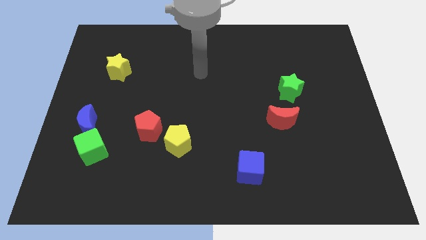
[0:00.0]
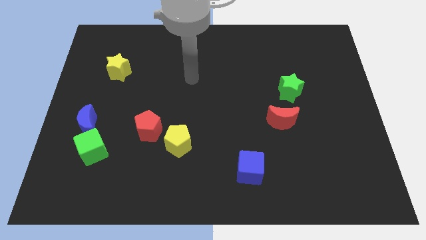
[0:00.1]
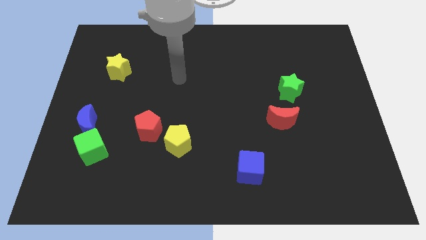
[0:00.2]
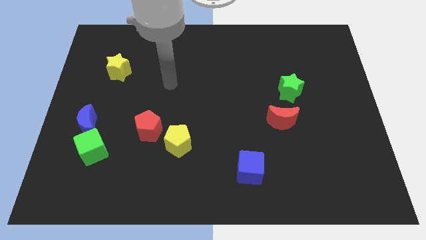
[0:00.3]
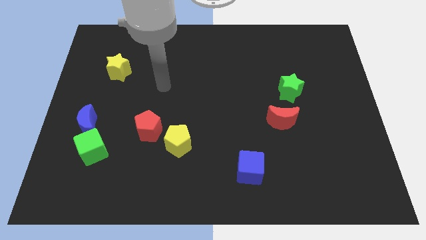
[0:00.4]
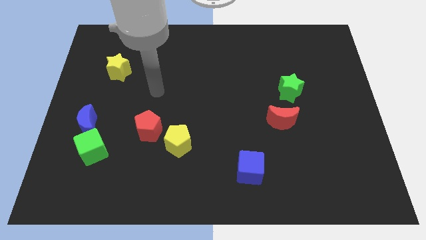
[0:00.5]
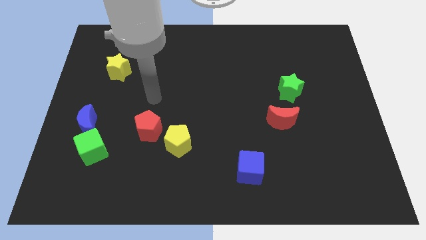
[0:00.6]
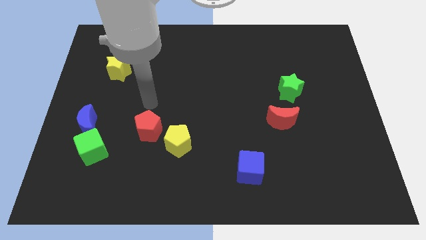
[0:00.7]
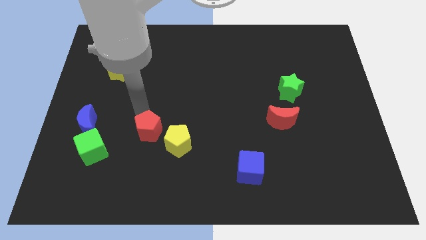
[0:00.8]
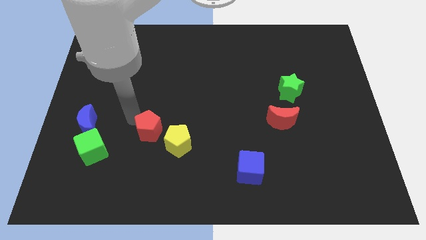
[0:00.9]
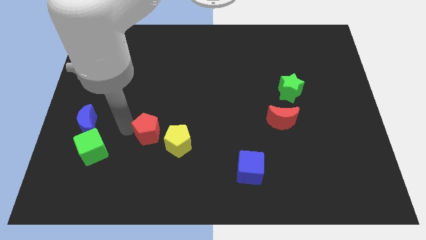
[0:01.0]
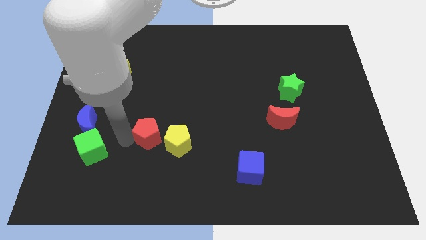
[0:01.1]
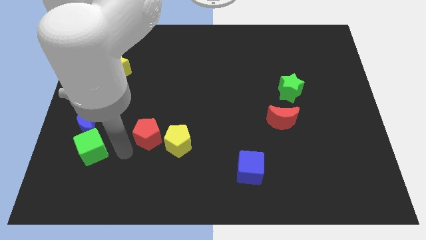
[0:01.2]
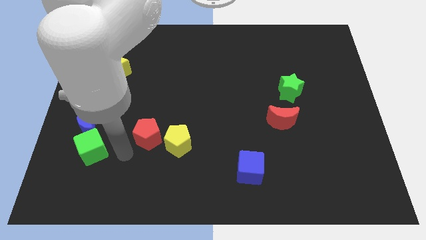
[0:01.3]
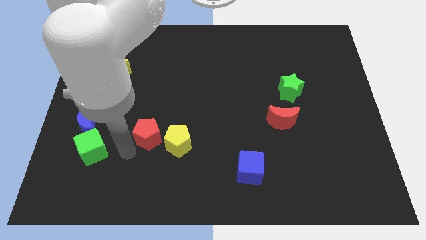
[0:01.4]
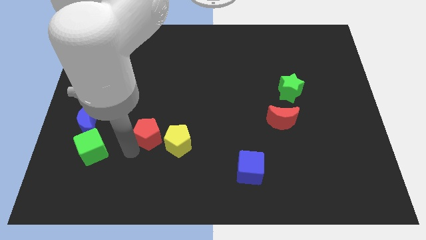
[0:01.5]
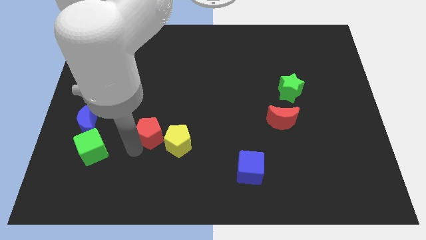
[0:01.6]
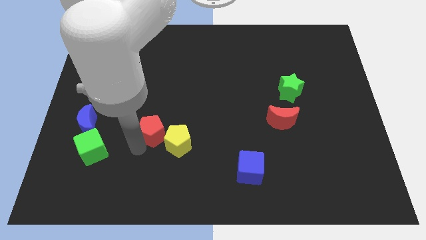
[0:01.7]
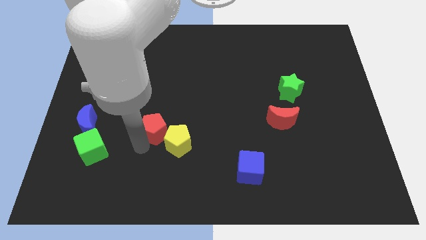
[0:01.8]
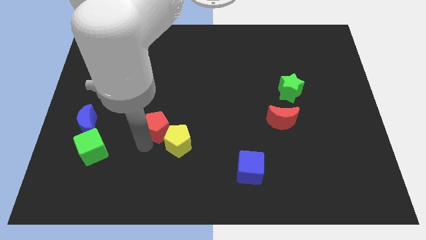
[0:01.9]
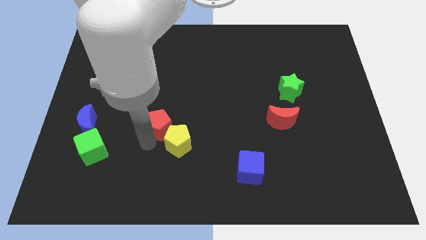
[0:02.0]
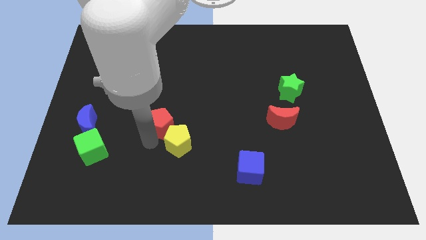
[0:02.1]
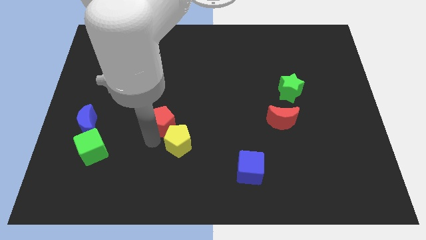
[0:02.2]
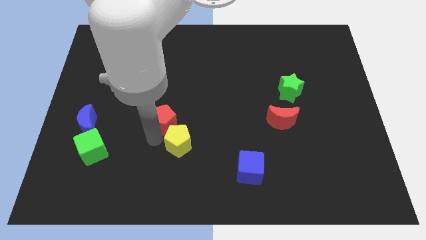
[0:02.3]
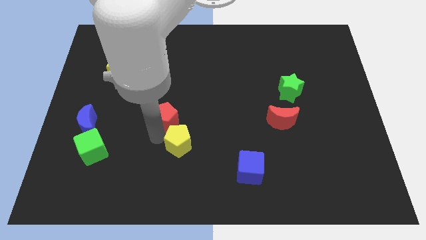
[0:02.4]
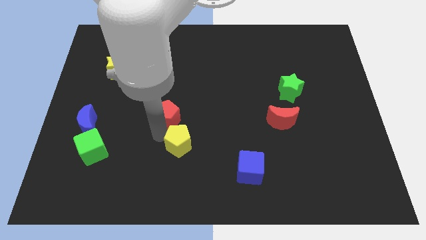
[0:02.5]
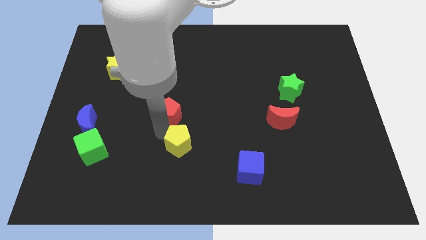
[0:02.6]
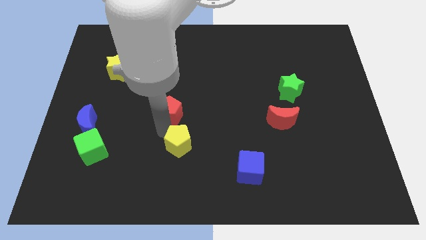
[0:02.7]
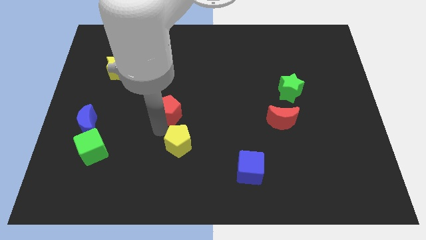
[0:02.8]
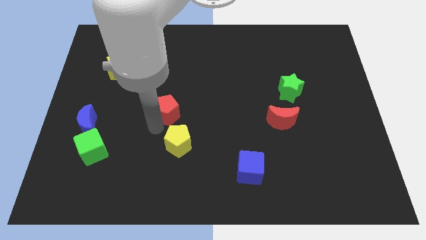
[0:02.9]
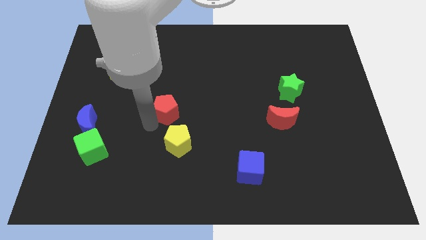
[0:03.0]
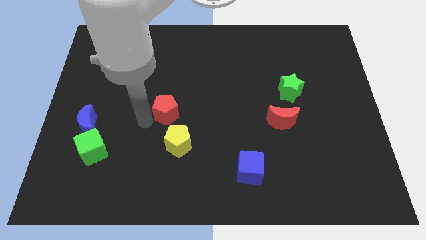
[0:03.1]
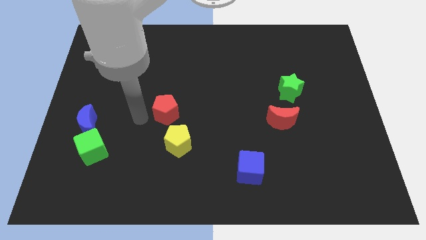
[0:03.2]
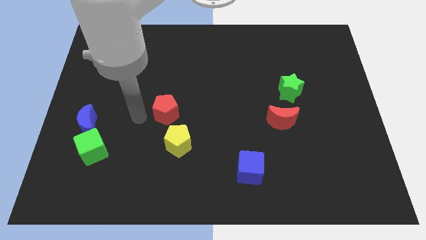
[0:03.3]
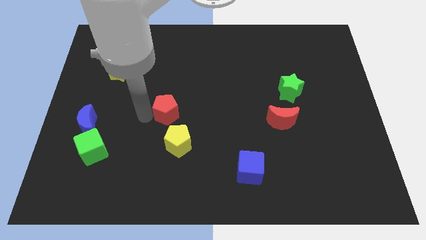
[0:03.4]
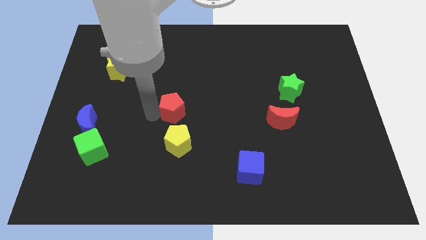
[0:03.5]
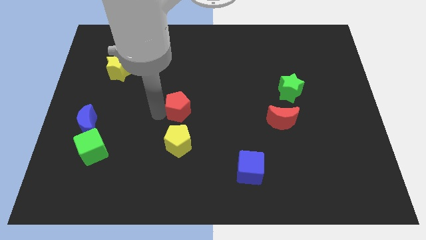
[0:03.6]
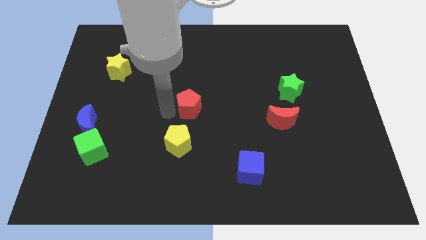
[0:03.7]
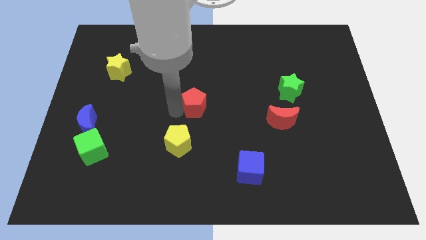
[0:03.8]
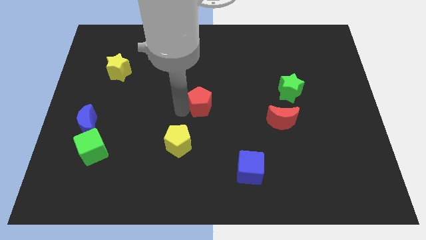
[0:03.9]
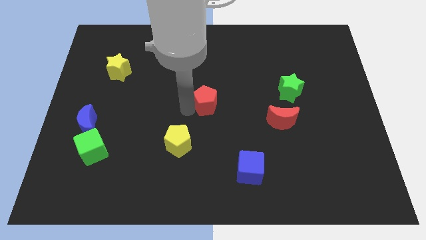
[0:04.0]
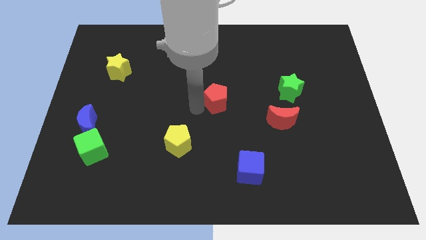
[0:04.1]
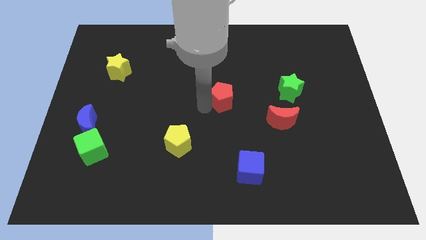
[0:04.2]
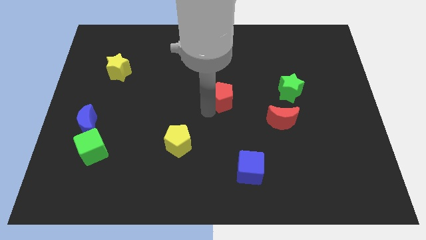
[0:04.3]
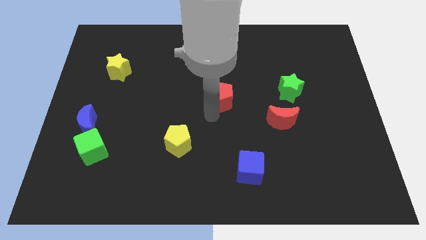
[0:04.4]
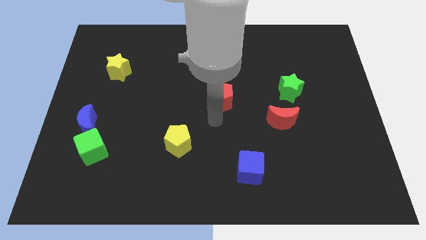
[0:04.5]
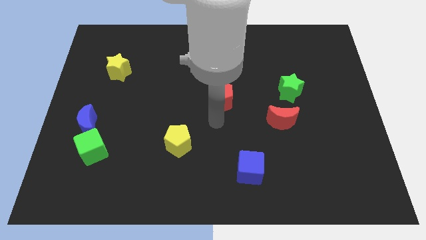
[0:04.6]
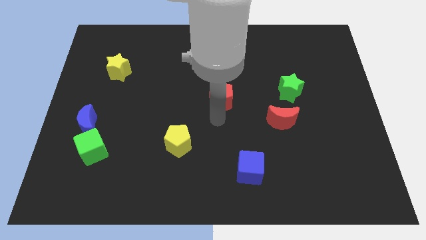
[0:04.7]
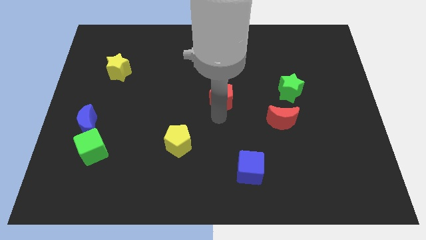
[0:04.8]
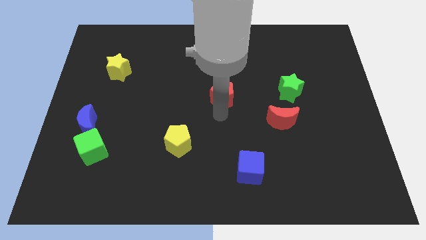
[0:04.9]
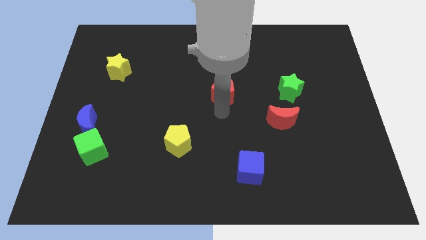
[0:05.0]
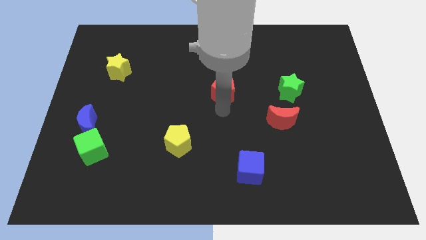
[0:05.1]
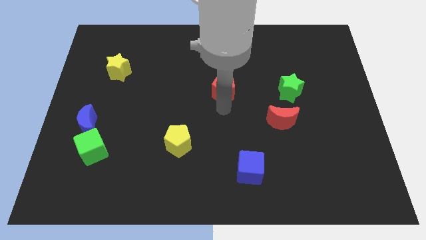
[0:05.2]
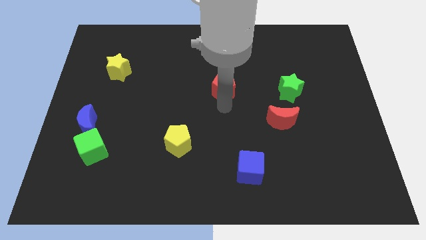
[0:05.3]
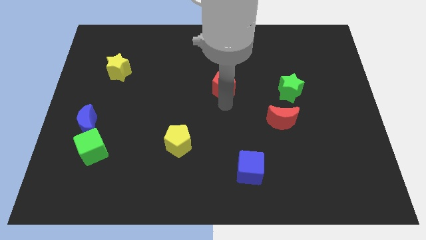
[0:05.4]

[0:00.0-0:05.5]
slide the red pentagon up and right

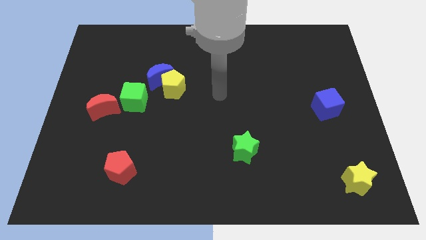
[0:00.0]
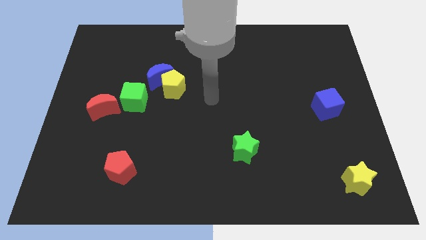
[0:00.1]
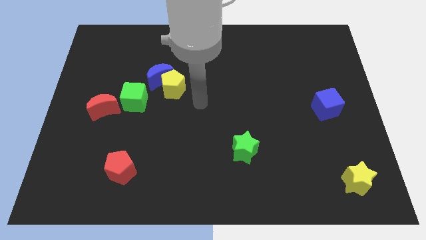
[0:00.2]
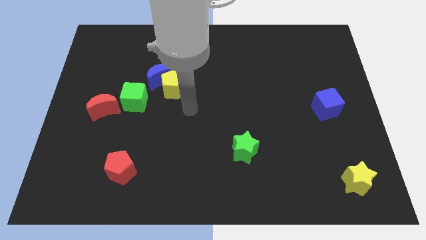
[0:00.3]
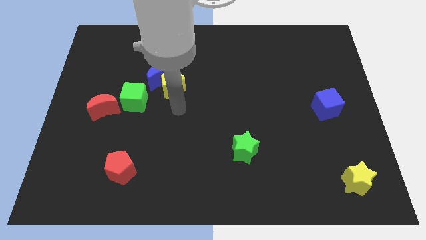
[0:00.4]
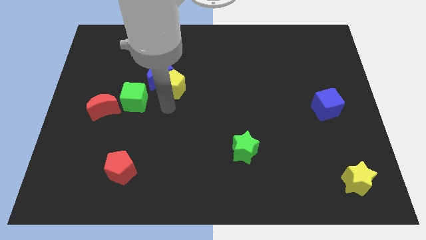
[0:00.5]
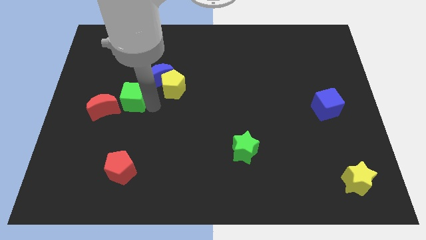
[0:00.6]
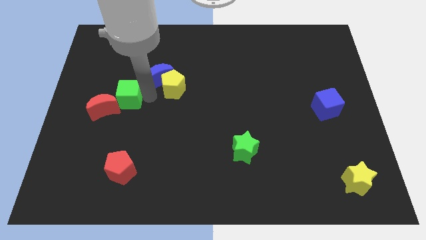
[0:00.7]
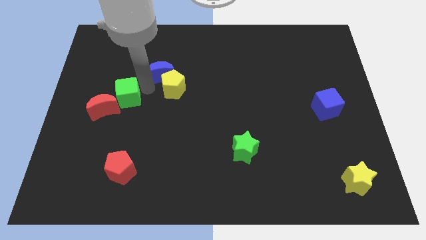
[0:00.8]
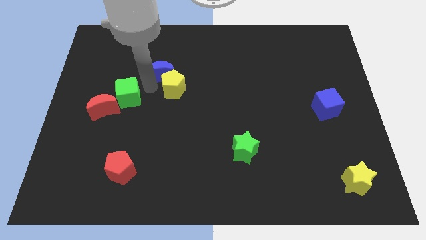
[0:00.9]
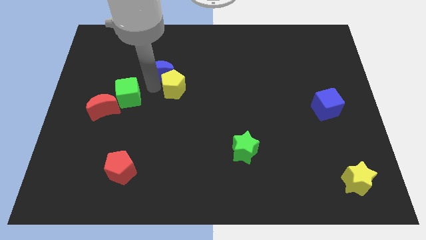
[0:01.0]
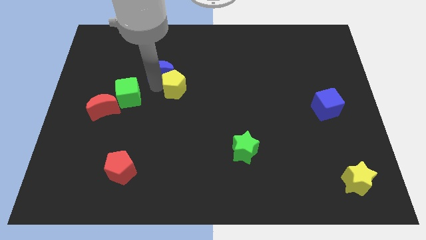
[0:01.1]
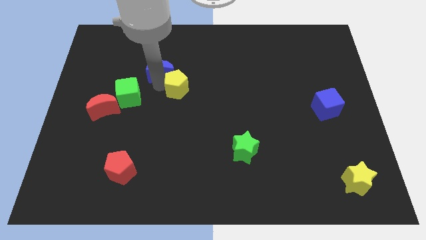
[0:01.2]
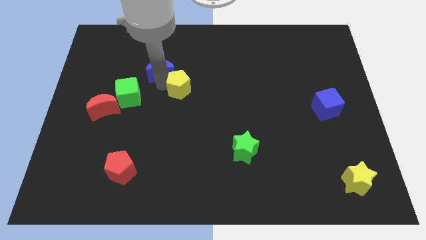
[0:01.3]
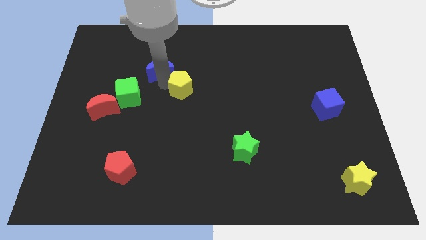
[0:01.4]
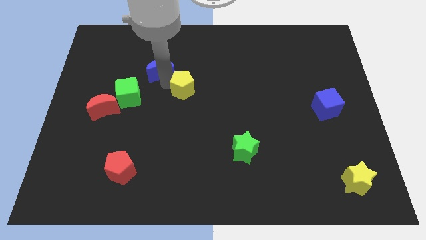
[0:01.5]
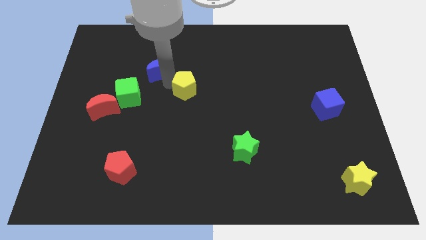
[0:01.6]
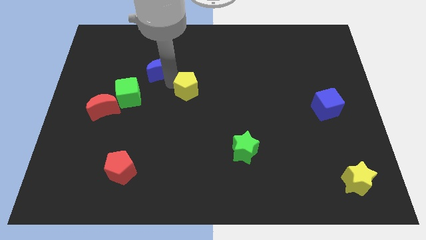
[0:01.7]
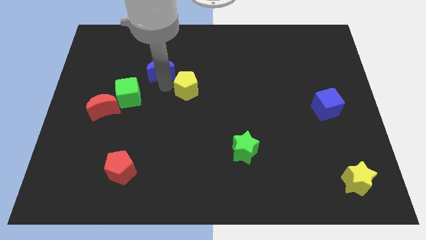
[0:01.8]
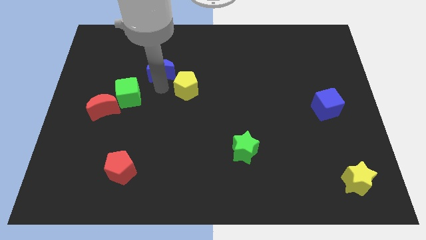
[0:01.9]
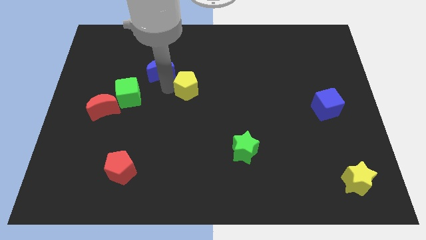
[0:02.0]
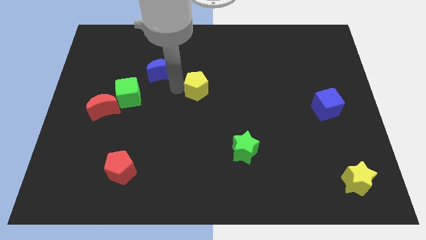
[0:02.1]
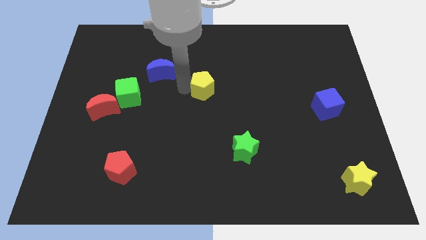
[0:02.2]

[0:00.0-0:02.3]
slightly move the yellow pentagon right
